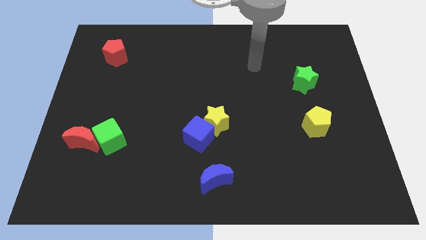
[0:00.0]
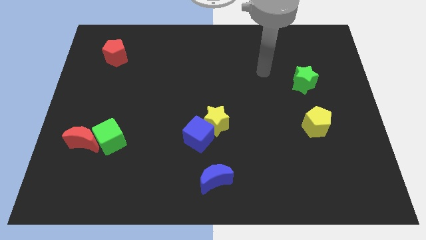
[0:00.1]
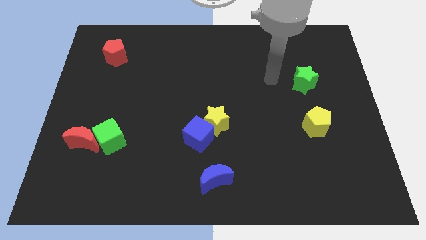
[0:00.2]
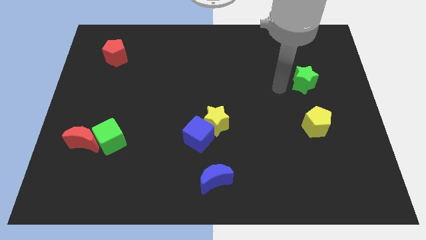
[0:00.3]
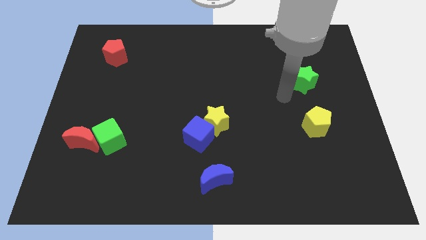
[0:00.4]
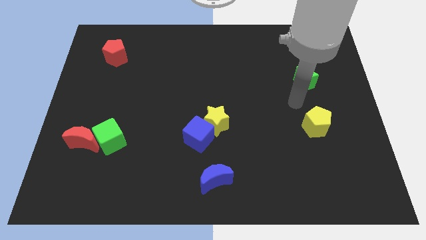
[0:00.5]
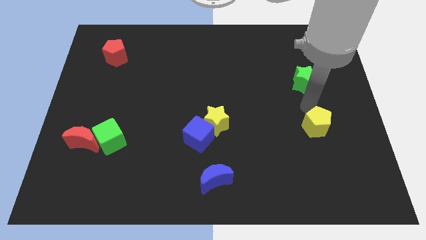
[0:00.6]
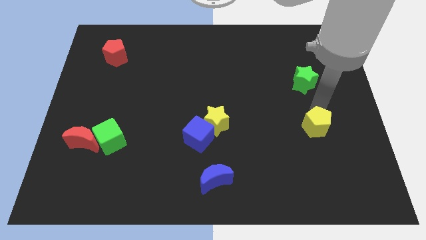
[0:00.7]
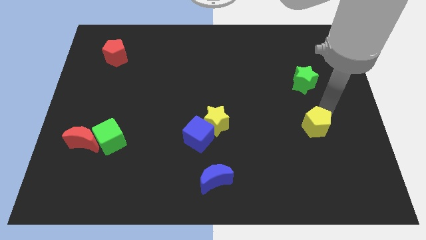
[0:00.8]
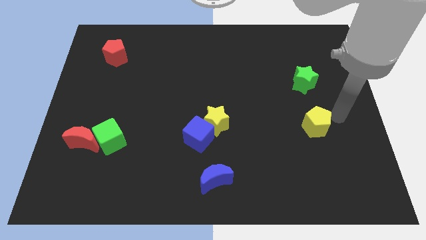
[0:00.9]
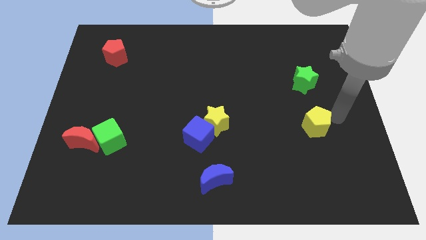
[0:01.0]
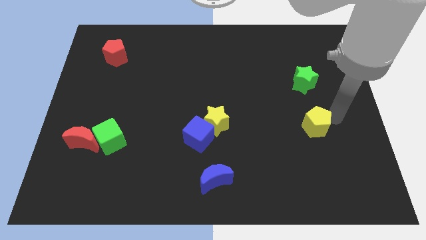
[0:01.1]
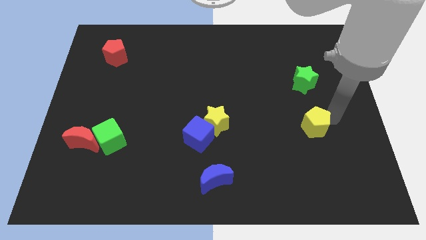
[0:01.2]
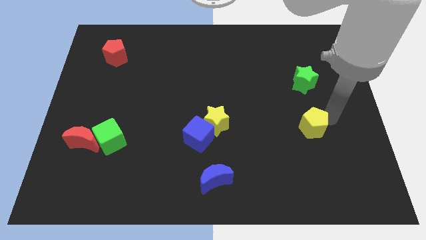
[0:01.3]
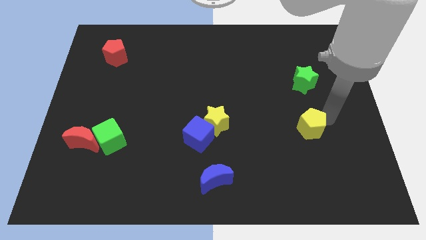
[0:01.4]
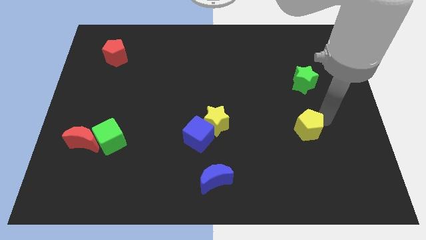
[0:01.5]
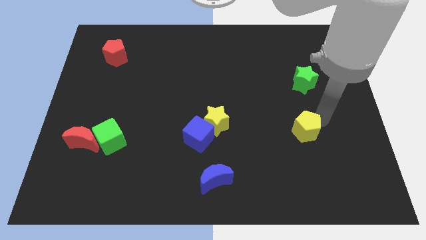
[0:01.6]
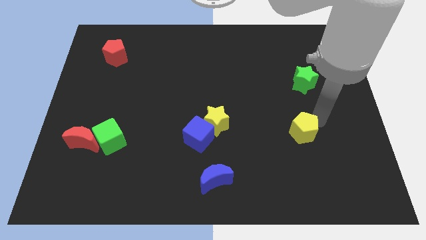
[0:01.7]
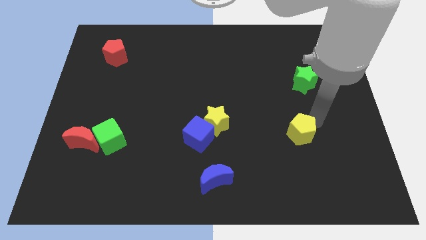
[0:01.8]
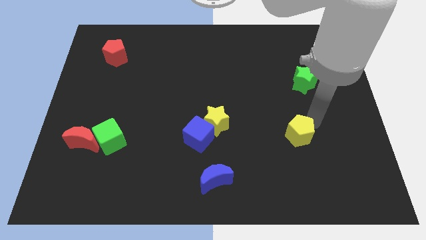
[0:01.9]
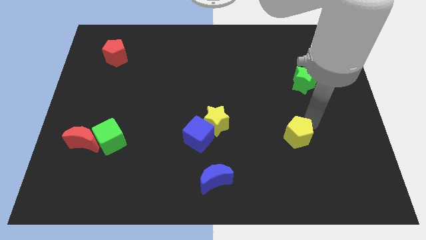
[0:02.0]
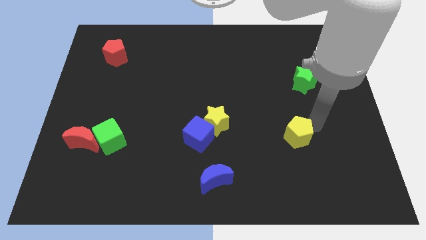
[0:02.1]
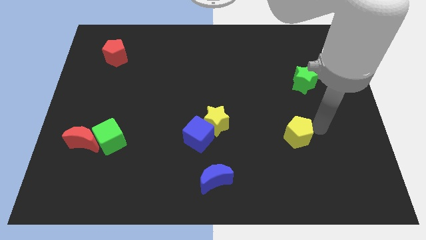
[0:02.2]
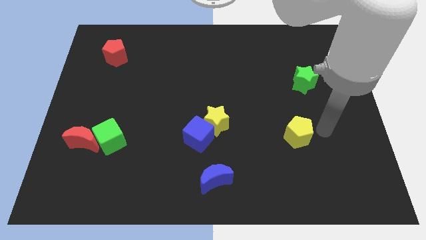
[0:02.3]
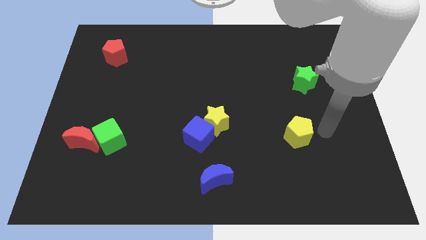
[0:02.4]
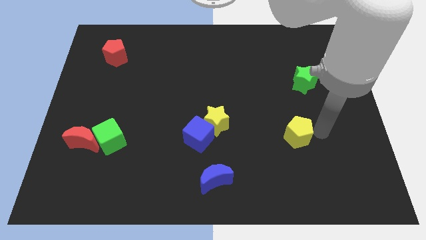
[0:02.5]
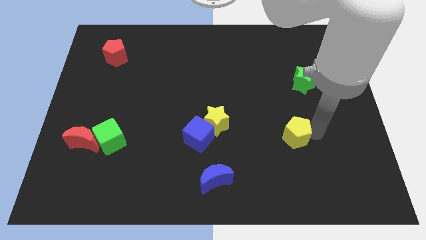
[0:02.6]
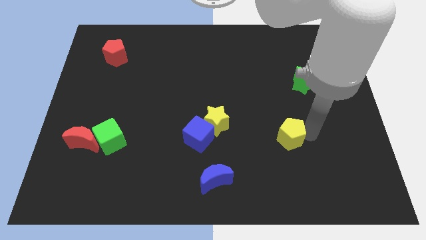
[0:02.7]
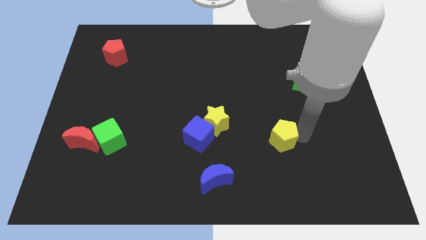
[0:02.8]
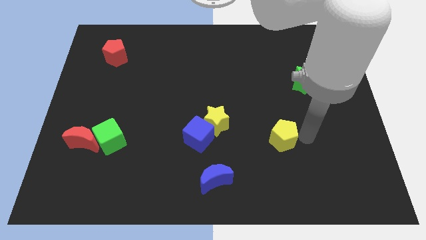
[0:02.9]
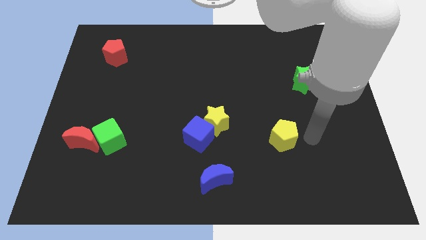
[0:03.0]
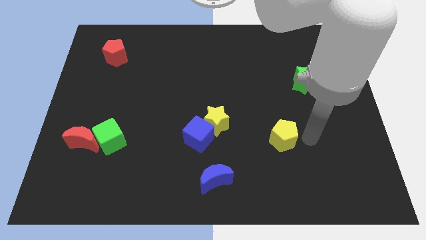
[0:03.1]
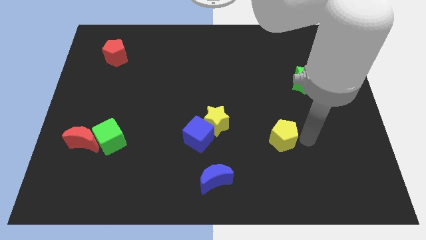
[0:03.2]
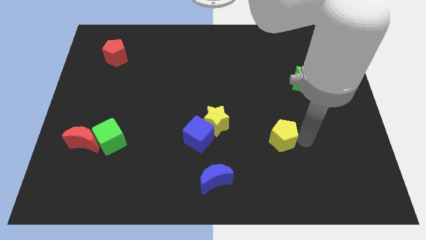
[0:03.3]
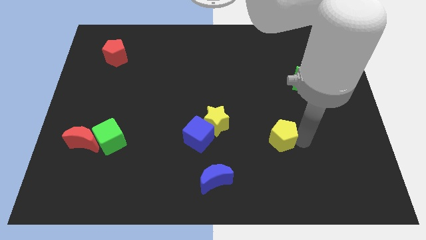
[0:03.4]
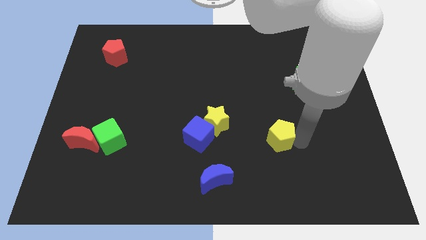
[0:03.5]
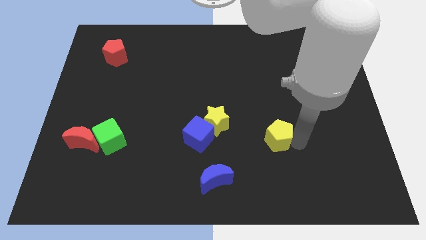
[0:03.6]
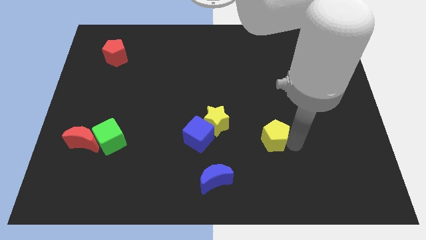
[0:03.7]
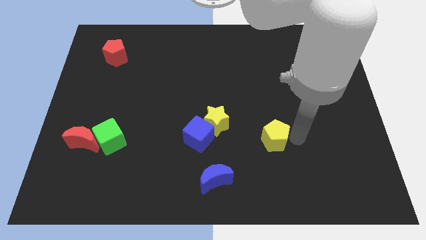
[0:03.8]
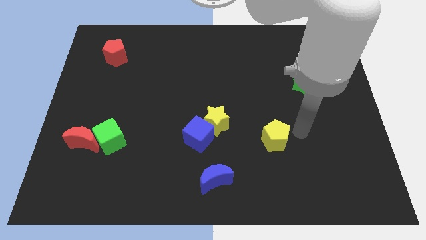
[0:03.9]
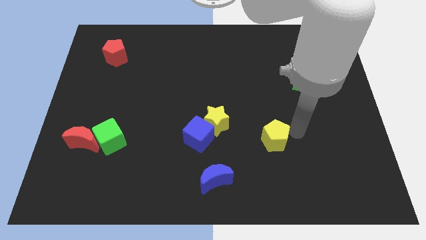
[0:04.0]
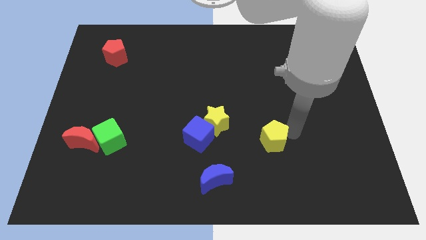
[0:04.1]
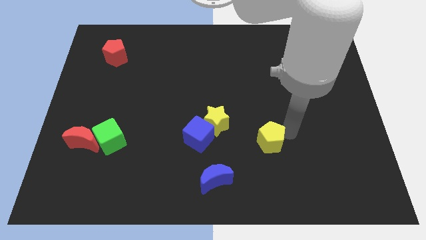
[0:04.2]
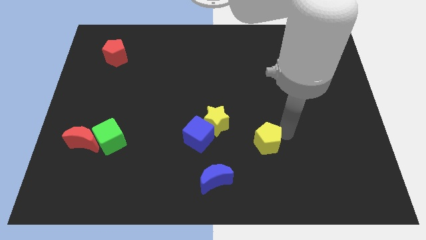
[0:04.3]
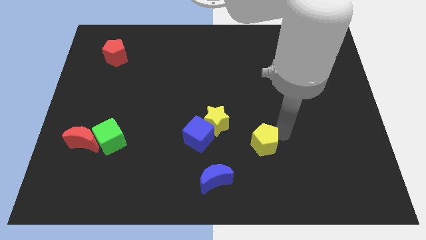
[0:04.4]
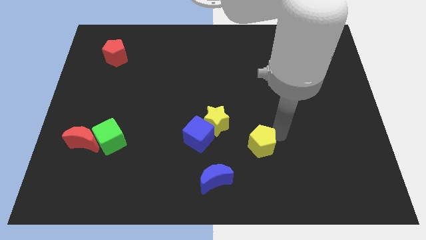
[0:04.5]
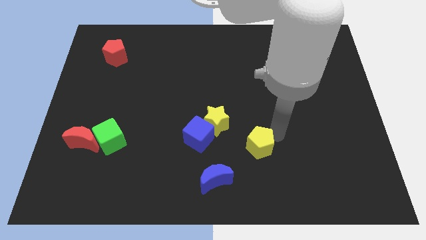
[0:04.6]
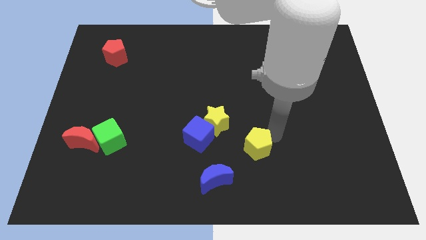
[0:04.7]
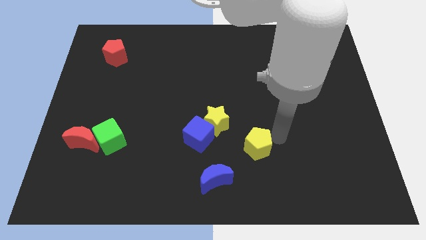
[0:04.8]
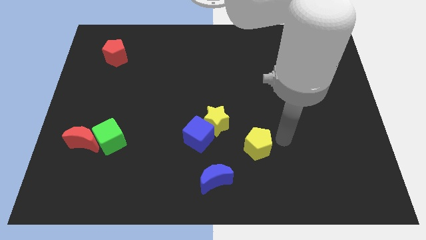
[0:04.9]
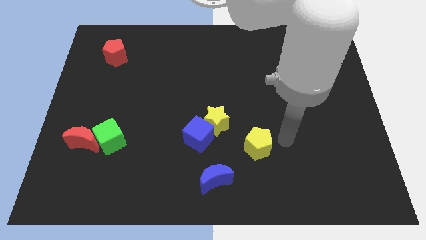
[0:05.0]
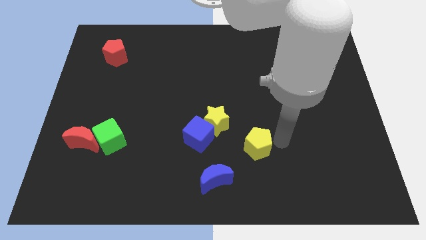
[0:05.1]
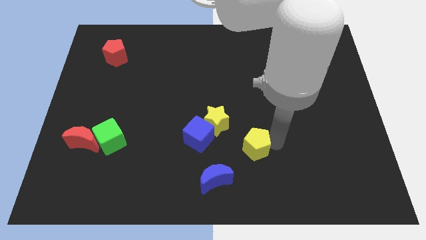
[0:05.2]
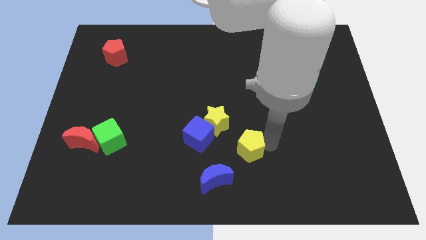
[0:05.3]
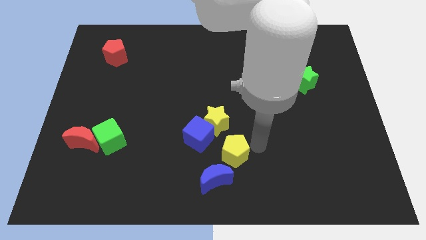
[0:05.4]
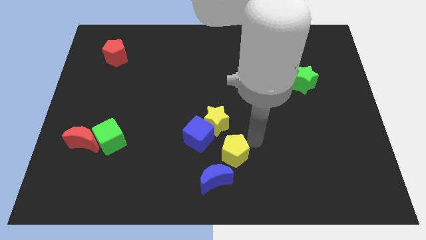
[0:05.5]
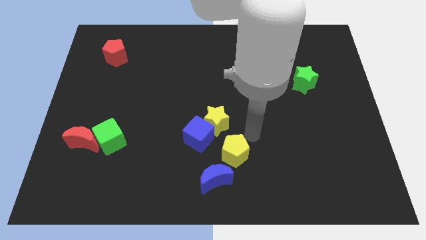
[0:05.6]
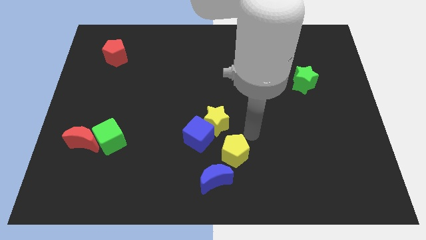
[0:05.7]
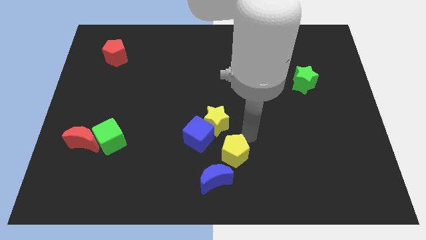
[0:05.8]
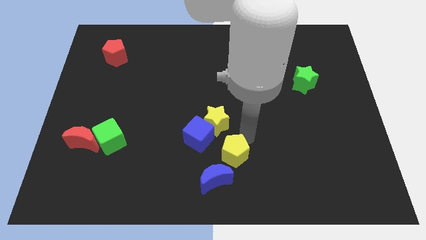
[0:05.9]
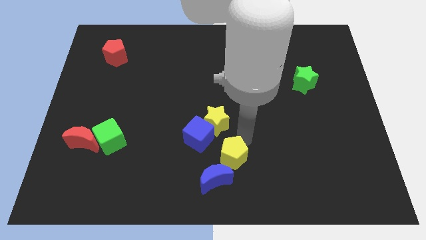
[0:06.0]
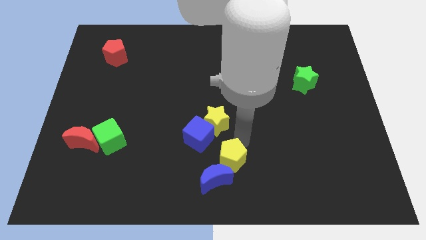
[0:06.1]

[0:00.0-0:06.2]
slide the yellow pentagon next to the blue moon

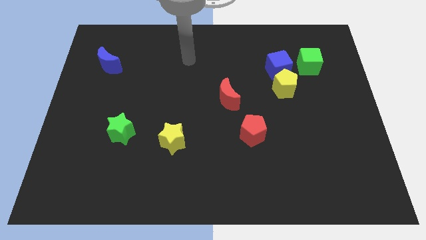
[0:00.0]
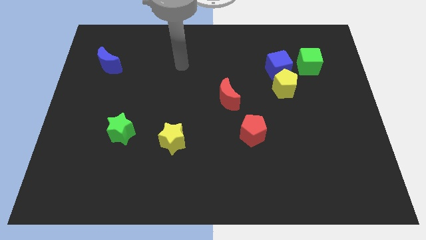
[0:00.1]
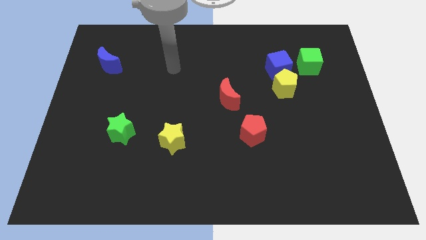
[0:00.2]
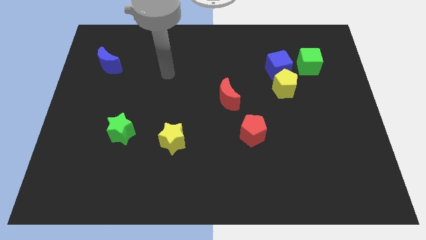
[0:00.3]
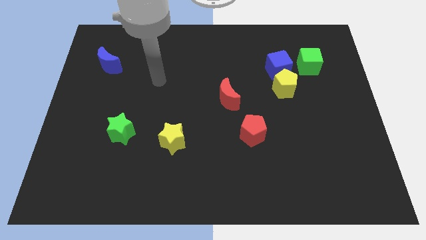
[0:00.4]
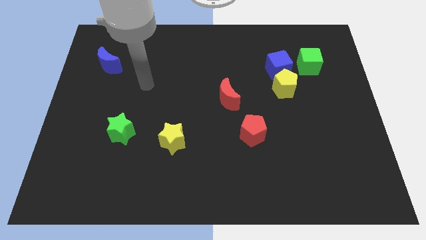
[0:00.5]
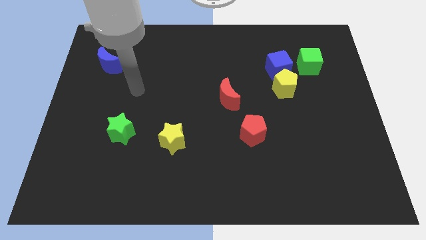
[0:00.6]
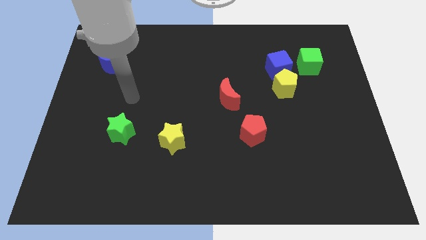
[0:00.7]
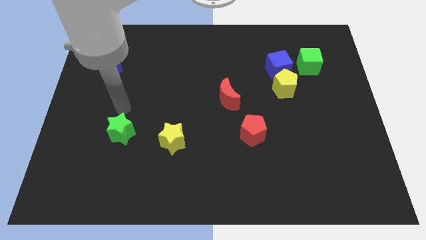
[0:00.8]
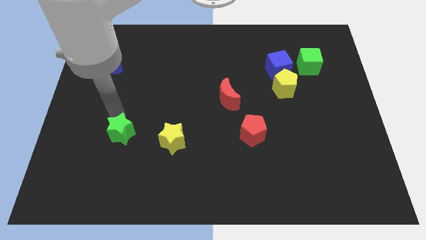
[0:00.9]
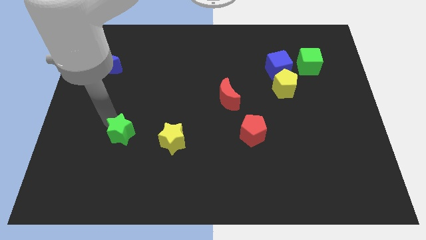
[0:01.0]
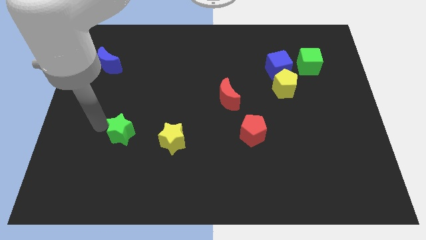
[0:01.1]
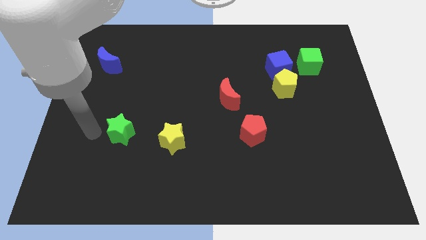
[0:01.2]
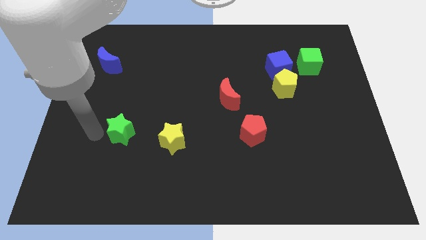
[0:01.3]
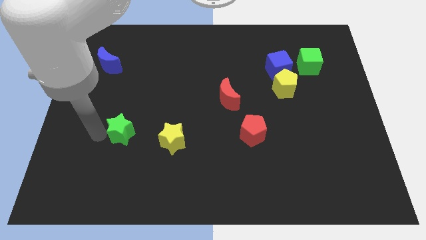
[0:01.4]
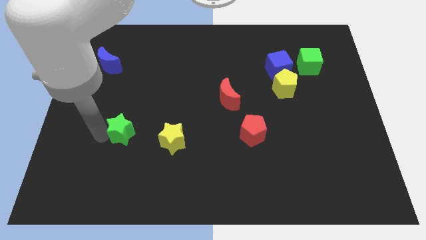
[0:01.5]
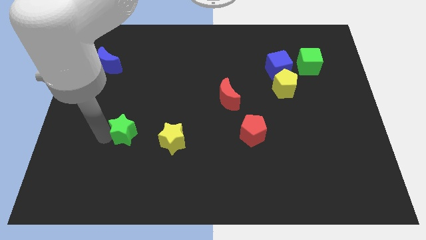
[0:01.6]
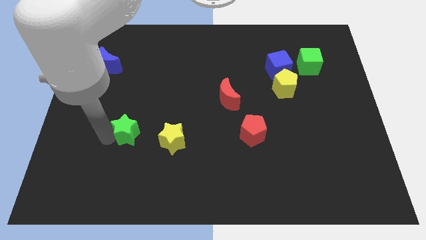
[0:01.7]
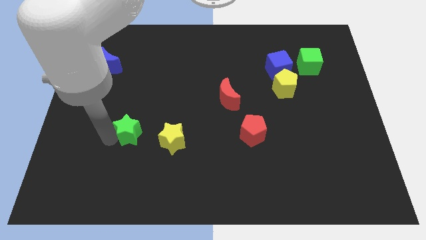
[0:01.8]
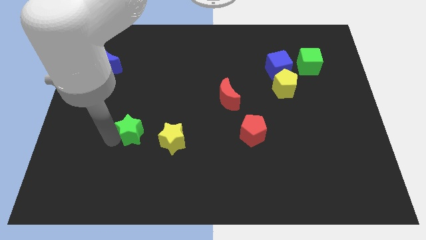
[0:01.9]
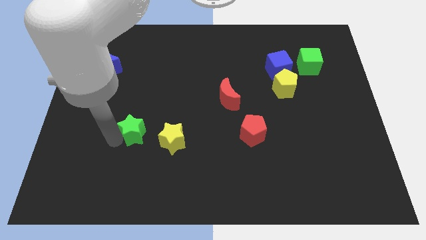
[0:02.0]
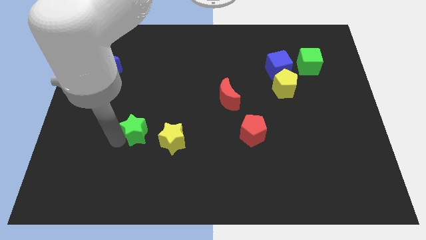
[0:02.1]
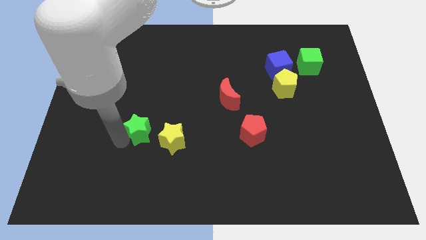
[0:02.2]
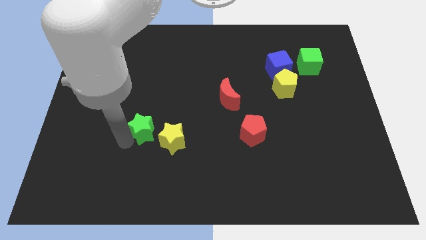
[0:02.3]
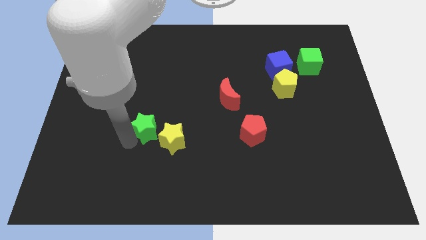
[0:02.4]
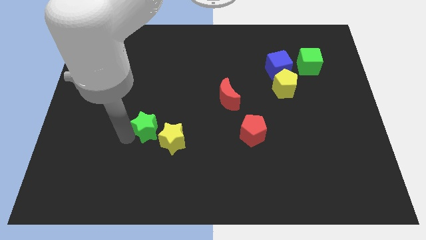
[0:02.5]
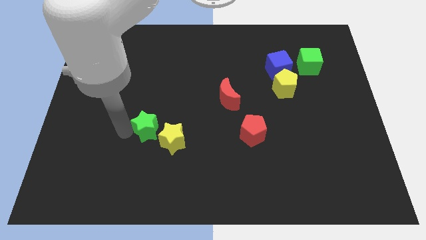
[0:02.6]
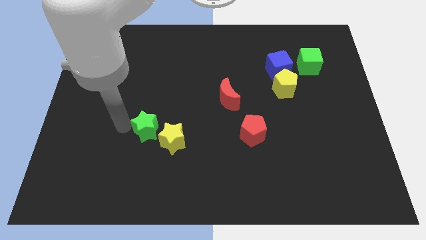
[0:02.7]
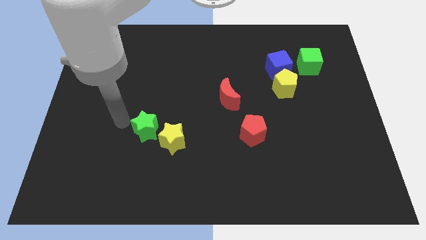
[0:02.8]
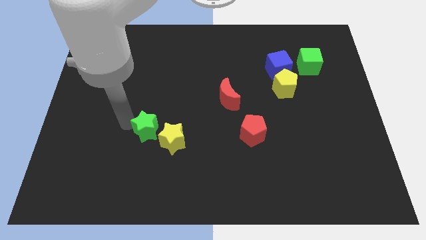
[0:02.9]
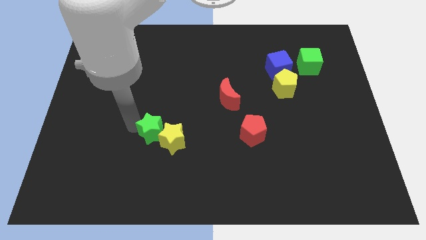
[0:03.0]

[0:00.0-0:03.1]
slide the green star close to the yellow star
